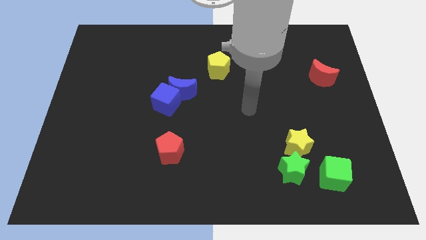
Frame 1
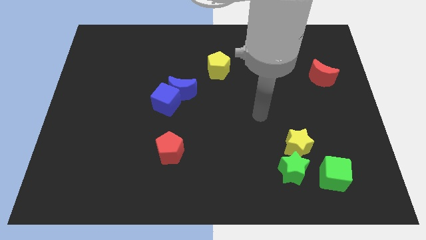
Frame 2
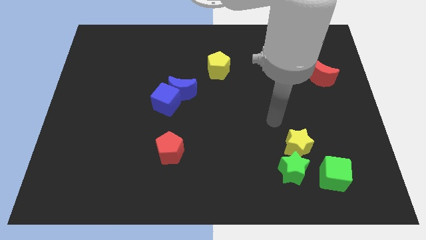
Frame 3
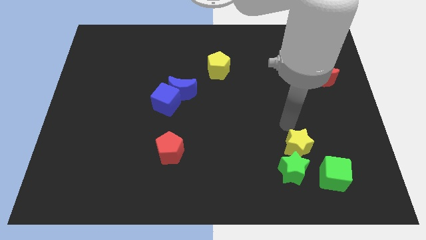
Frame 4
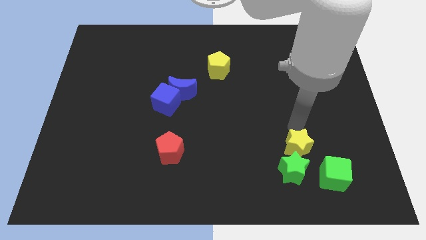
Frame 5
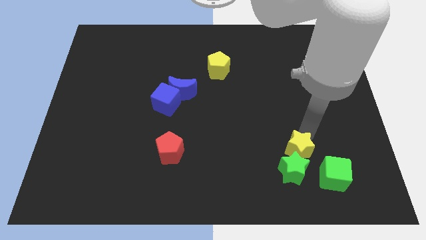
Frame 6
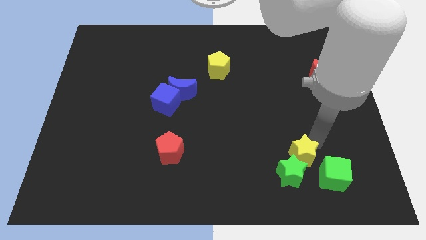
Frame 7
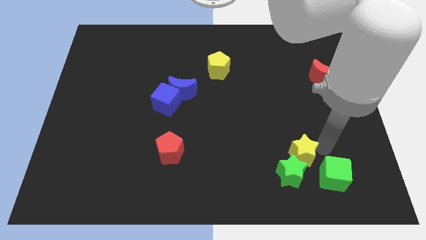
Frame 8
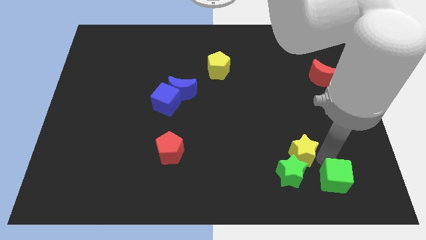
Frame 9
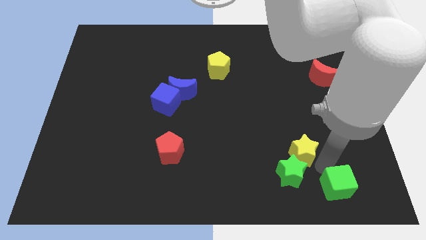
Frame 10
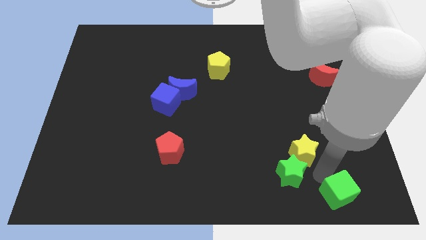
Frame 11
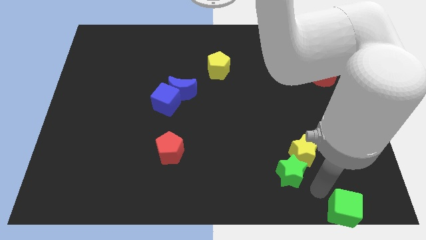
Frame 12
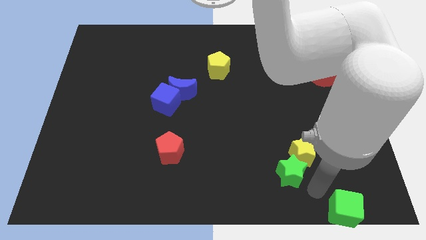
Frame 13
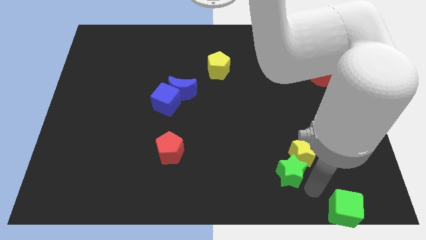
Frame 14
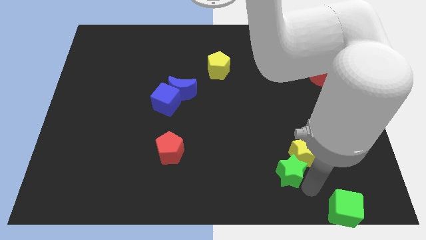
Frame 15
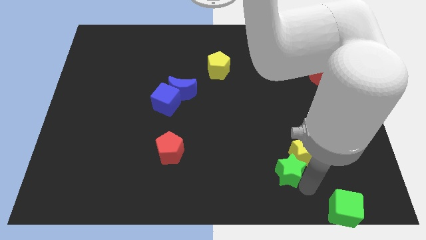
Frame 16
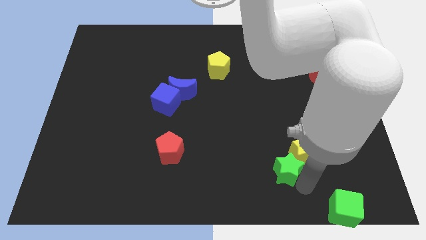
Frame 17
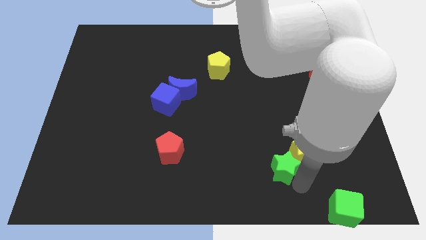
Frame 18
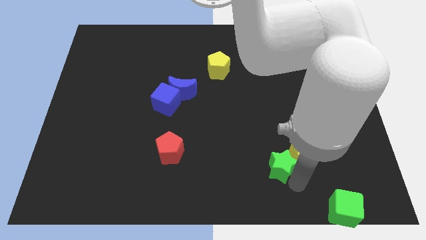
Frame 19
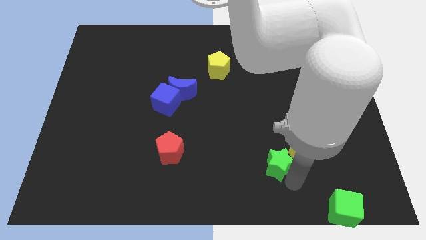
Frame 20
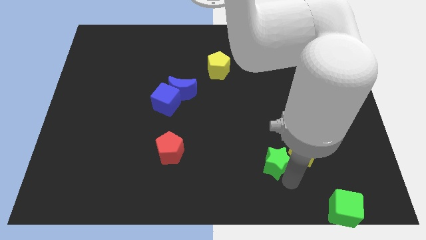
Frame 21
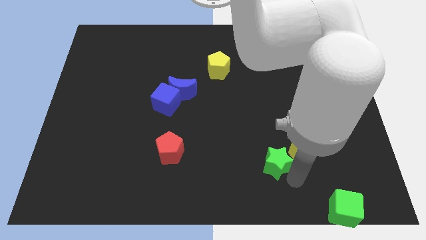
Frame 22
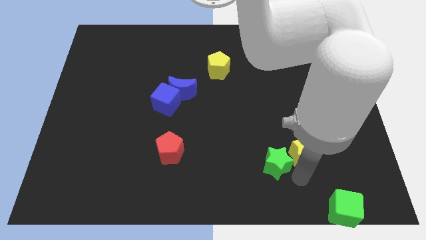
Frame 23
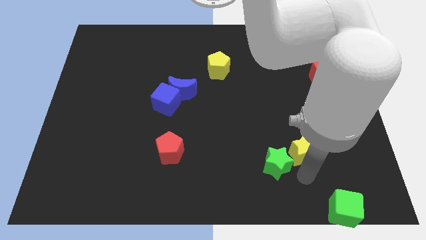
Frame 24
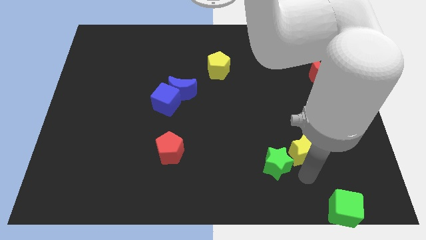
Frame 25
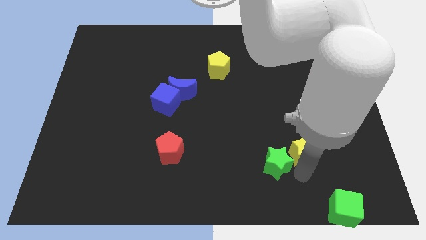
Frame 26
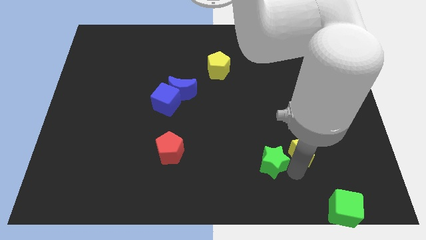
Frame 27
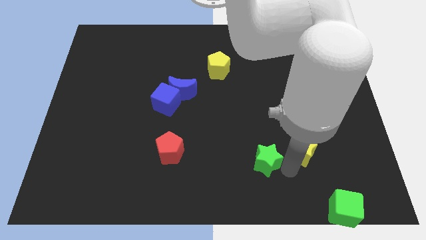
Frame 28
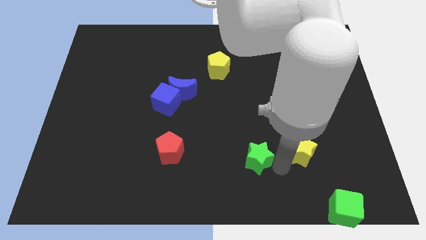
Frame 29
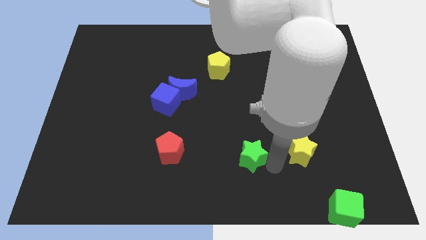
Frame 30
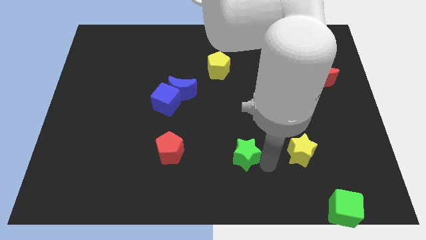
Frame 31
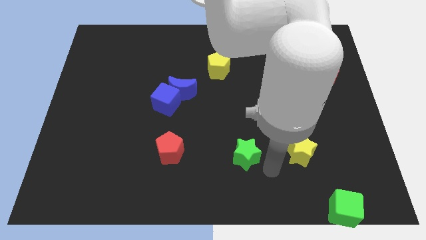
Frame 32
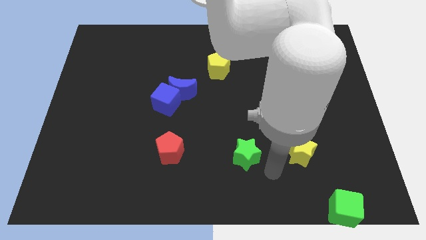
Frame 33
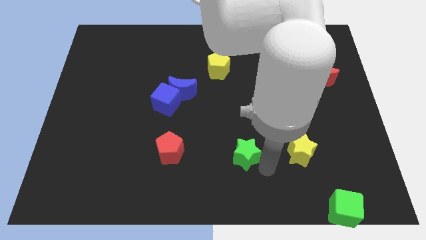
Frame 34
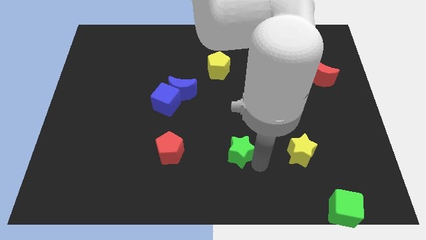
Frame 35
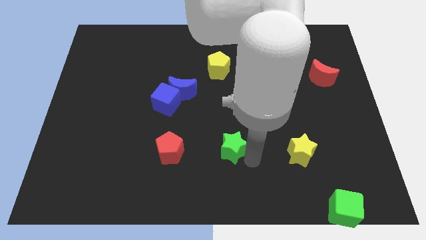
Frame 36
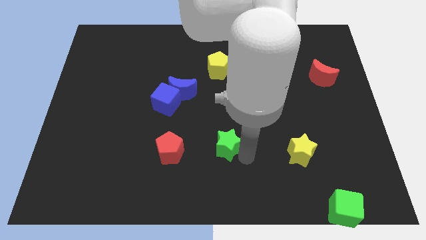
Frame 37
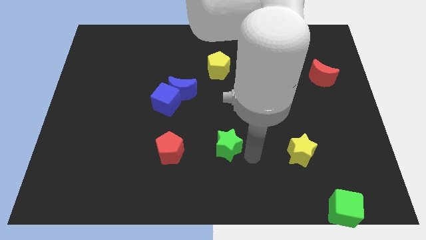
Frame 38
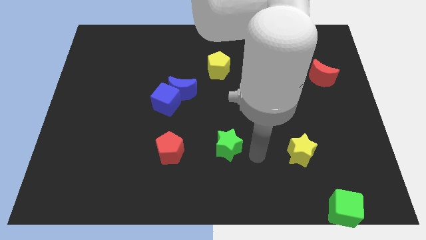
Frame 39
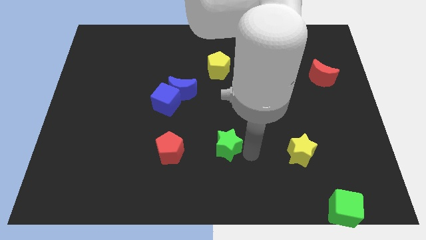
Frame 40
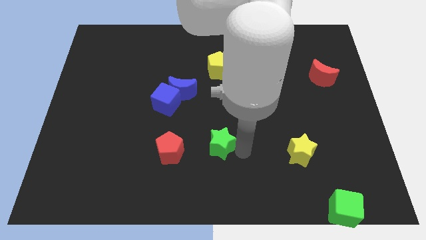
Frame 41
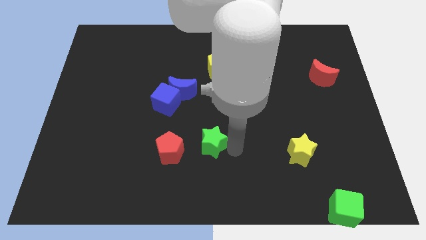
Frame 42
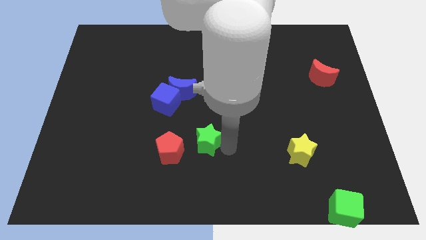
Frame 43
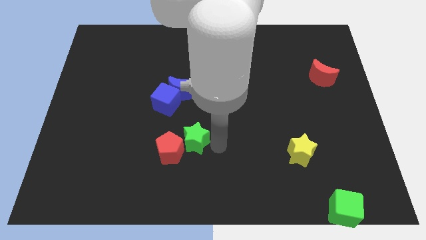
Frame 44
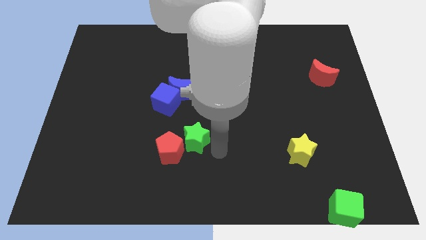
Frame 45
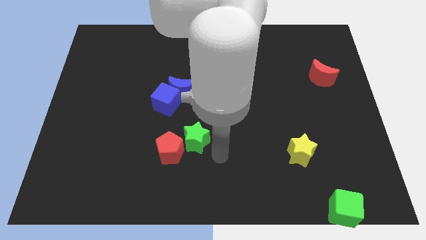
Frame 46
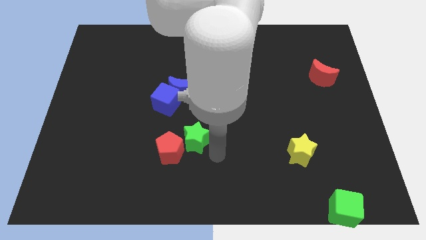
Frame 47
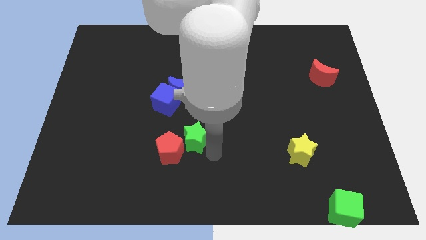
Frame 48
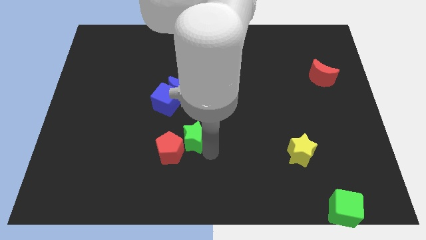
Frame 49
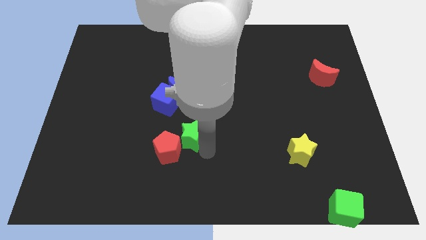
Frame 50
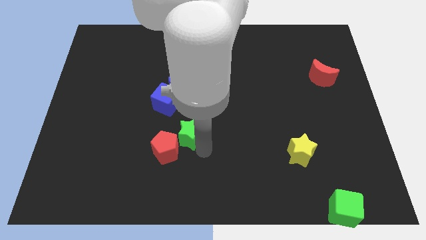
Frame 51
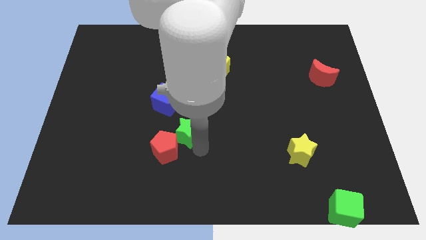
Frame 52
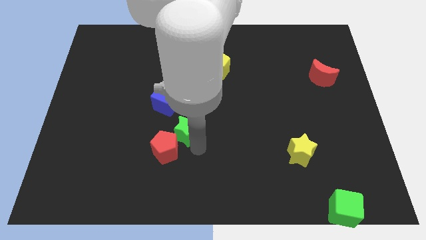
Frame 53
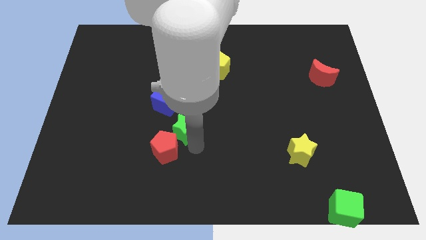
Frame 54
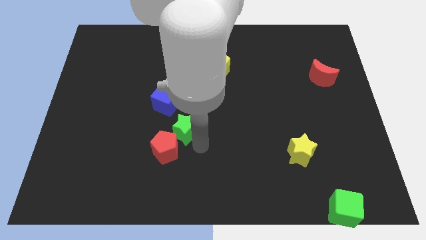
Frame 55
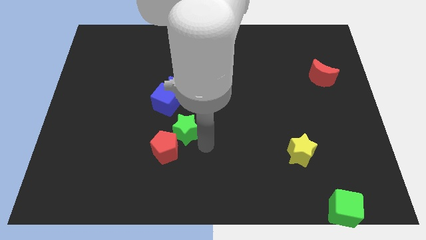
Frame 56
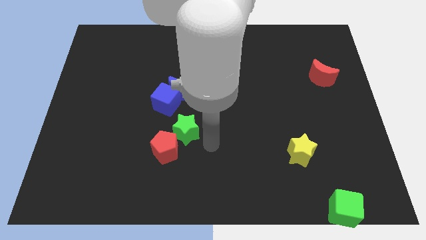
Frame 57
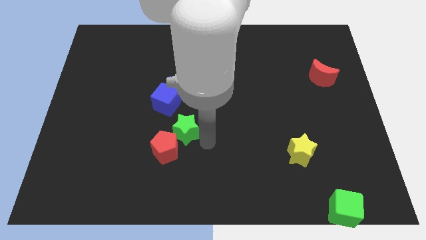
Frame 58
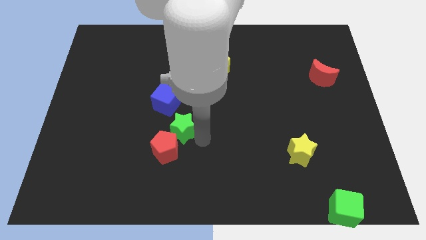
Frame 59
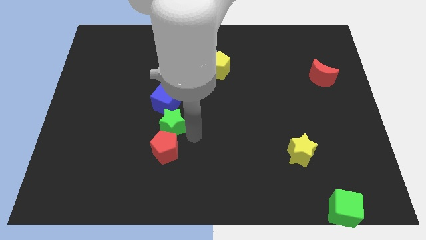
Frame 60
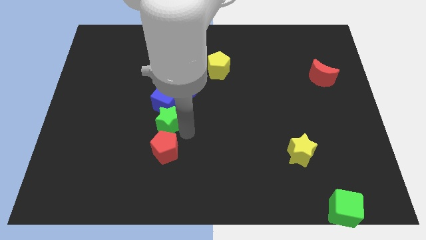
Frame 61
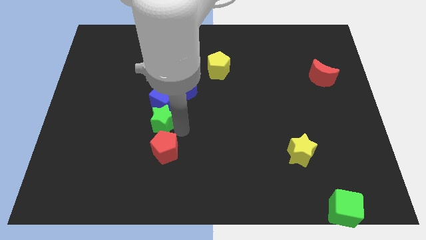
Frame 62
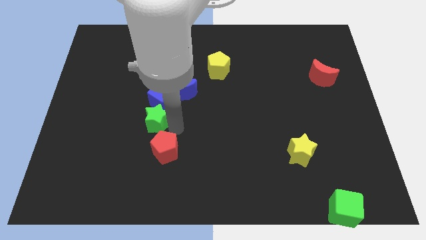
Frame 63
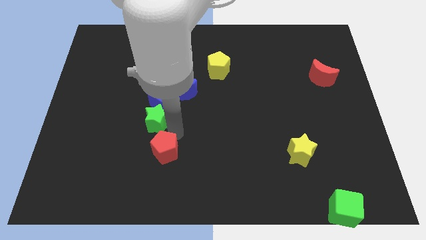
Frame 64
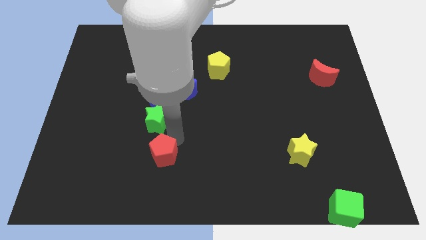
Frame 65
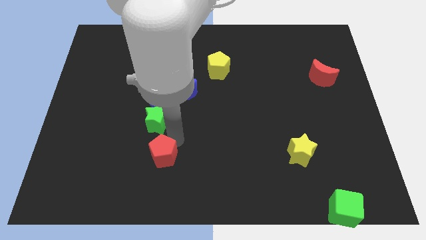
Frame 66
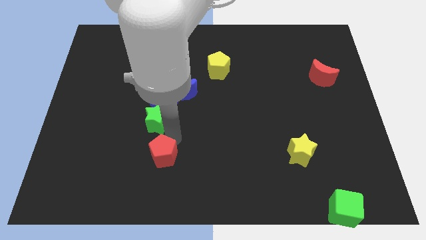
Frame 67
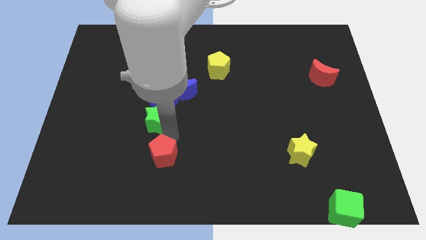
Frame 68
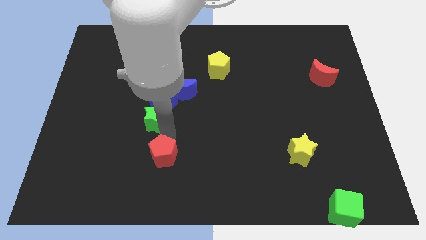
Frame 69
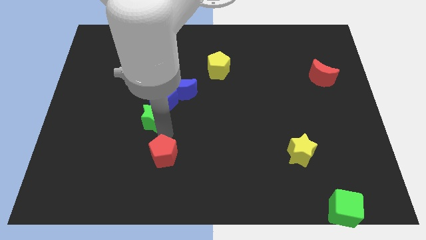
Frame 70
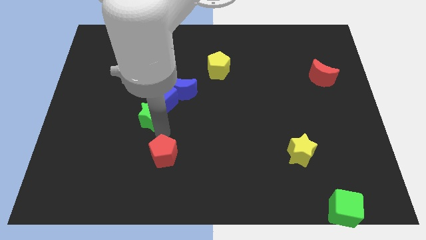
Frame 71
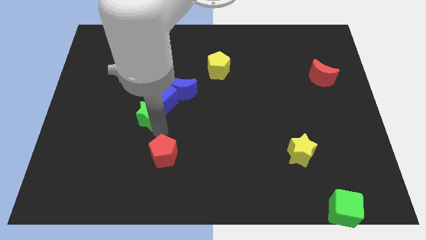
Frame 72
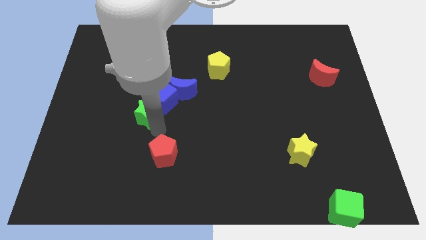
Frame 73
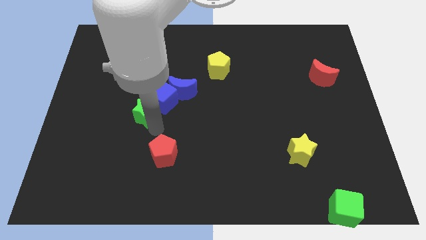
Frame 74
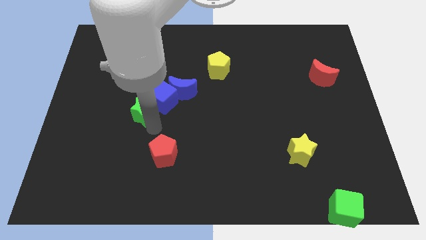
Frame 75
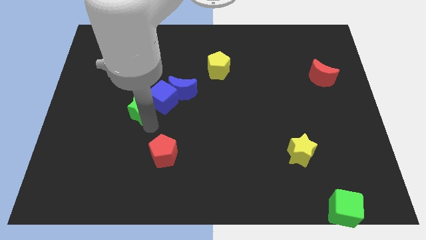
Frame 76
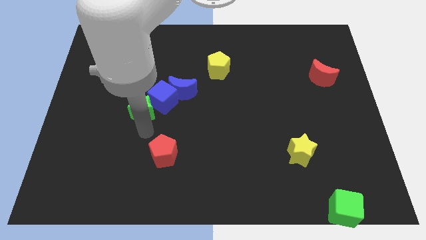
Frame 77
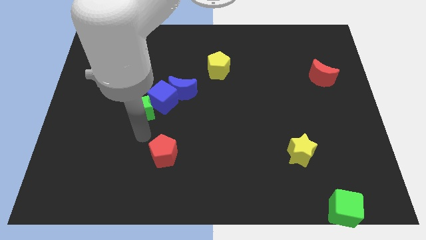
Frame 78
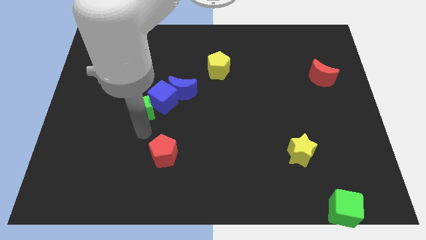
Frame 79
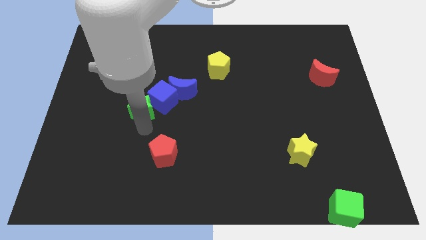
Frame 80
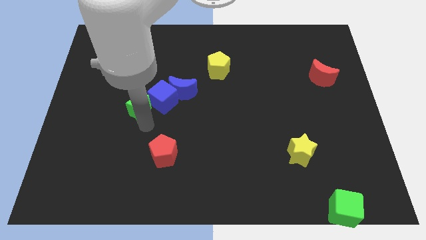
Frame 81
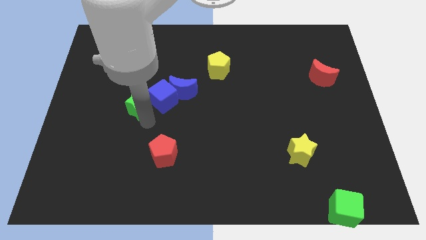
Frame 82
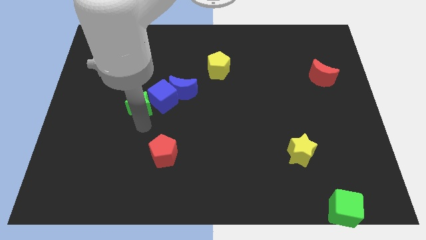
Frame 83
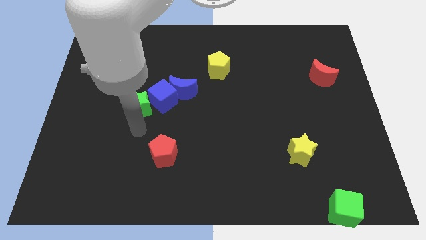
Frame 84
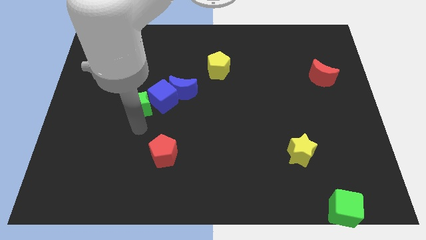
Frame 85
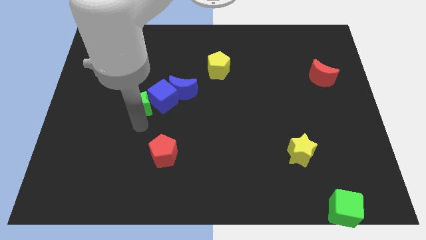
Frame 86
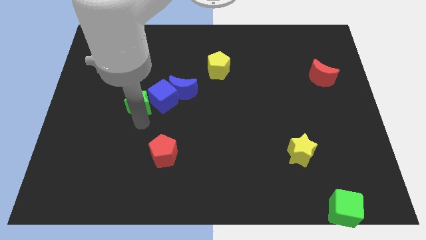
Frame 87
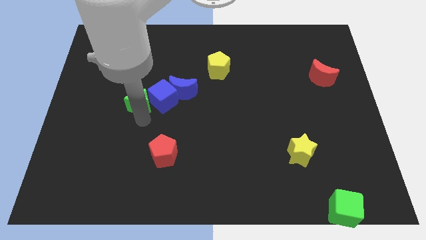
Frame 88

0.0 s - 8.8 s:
slide the green star to the top left of the blue cube
